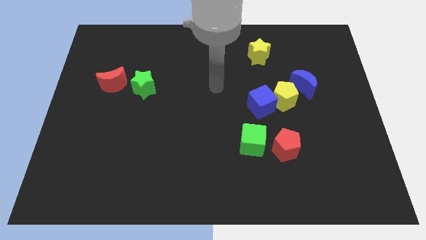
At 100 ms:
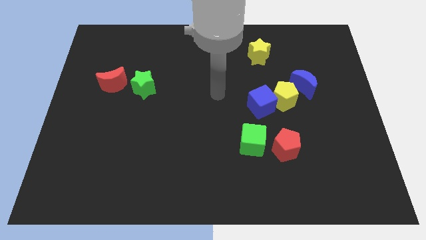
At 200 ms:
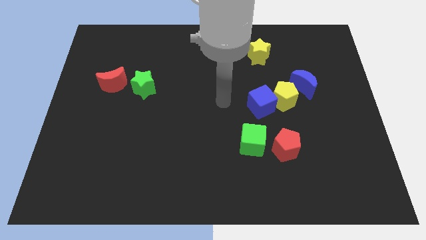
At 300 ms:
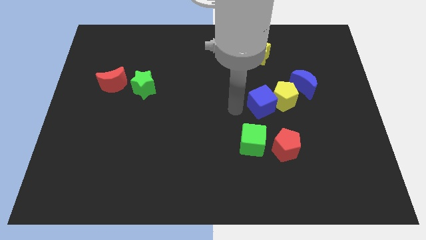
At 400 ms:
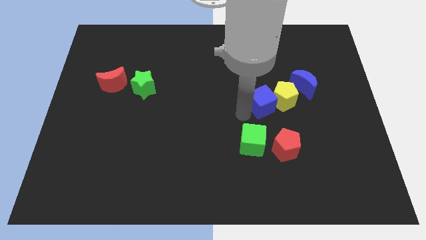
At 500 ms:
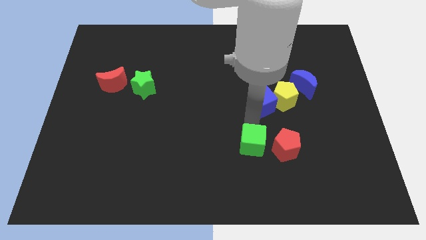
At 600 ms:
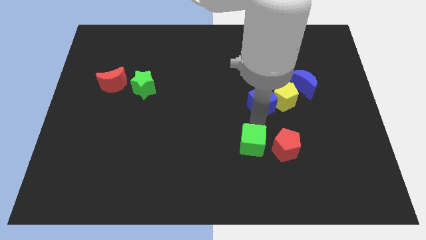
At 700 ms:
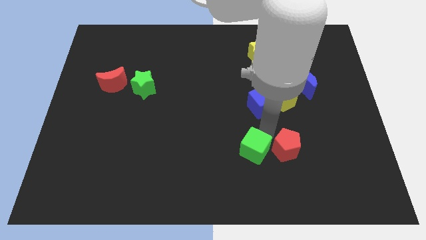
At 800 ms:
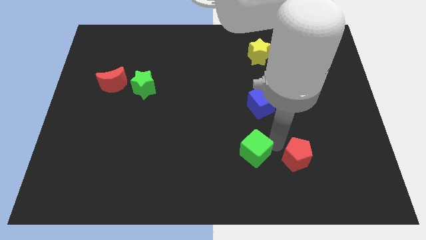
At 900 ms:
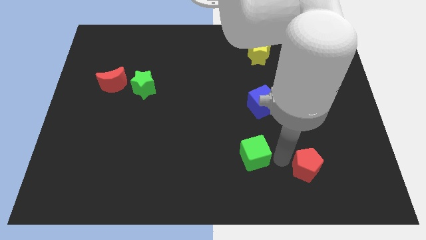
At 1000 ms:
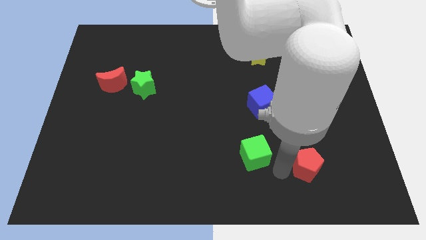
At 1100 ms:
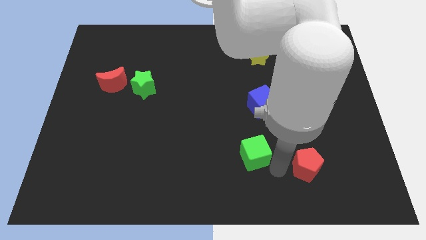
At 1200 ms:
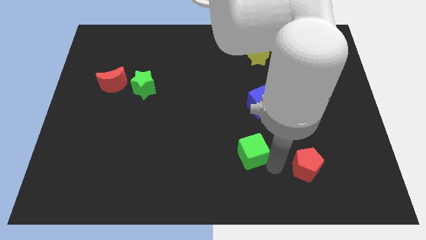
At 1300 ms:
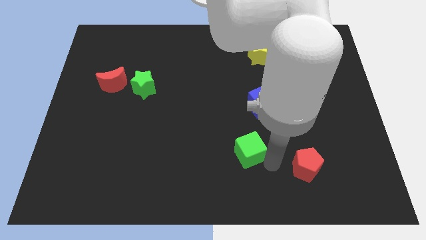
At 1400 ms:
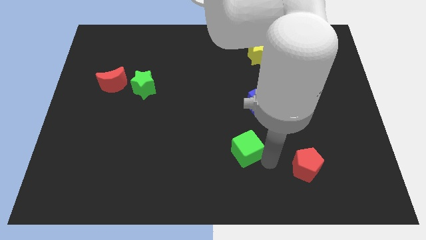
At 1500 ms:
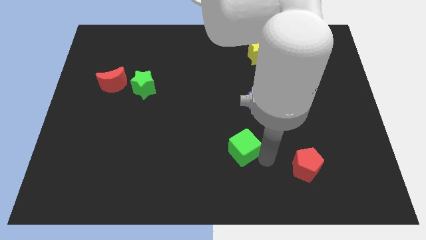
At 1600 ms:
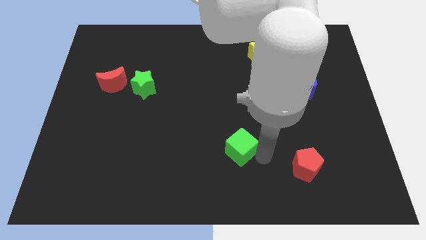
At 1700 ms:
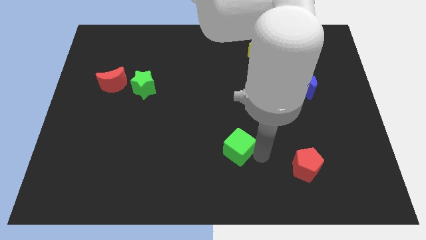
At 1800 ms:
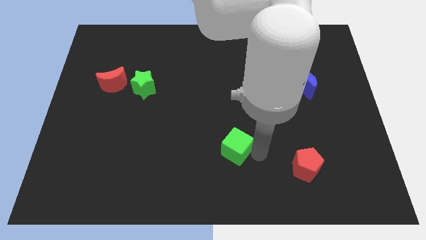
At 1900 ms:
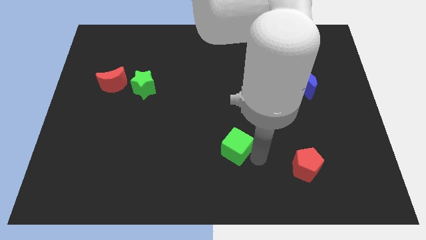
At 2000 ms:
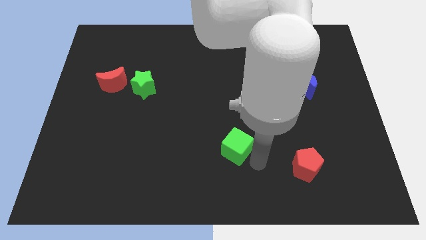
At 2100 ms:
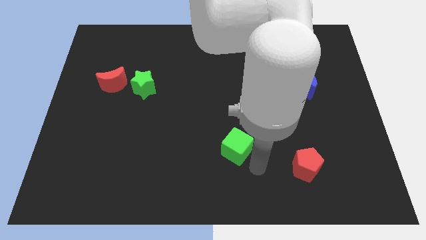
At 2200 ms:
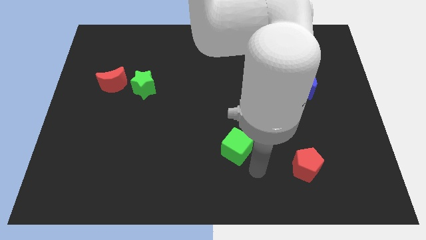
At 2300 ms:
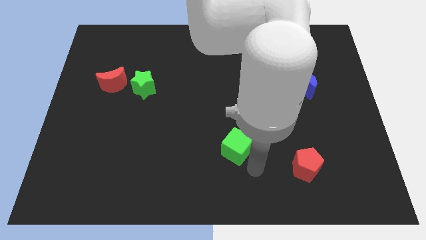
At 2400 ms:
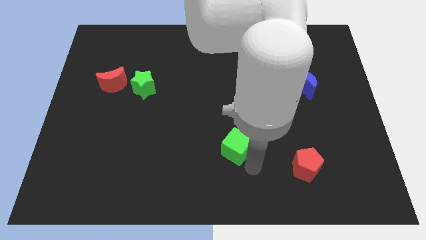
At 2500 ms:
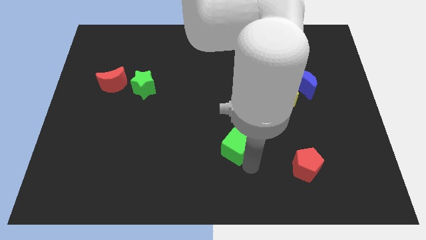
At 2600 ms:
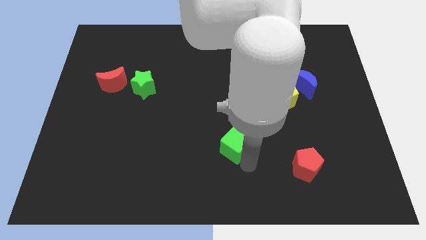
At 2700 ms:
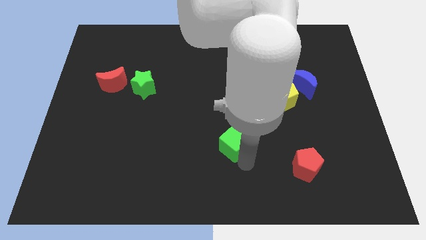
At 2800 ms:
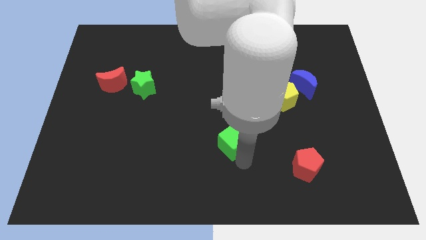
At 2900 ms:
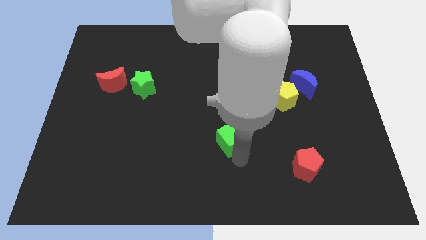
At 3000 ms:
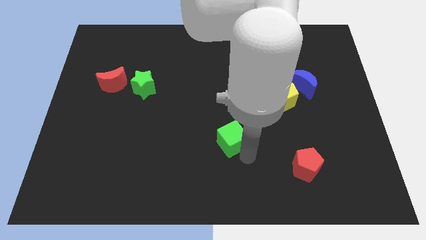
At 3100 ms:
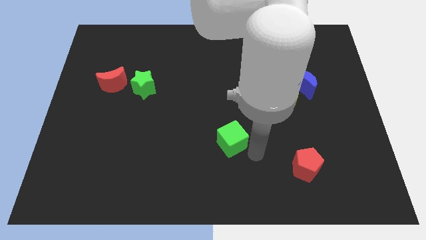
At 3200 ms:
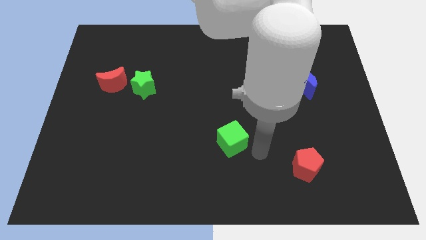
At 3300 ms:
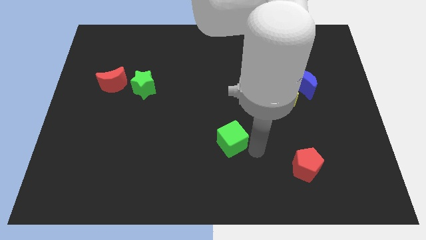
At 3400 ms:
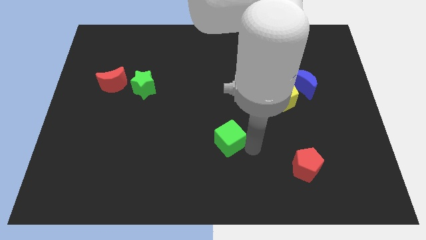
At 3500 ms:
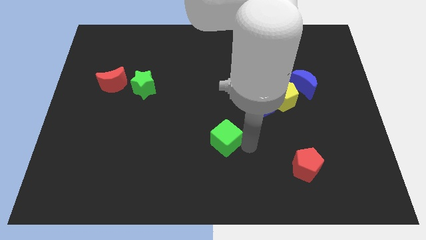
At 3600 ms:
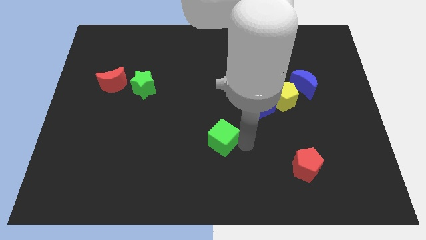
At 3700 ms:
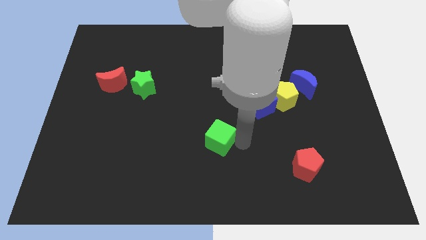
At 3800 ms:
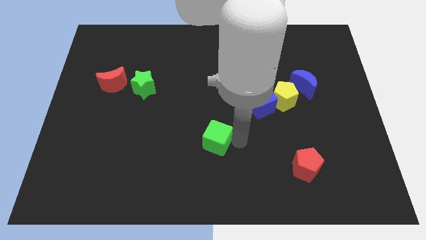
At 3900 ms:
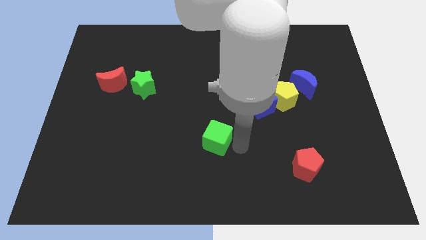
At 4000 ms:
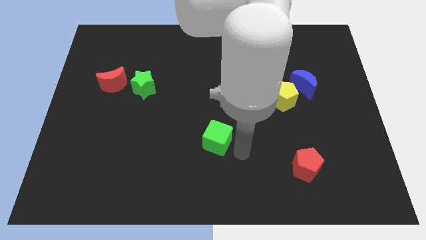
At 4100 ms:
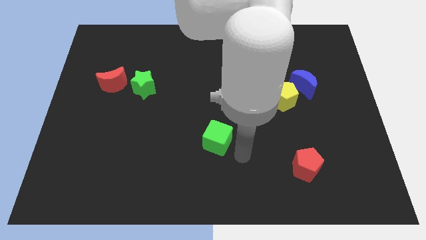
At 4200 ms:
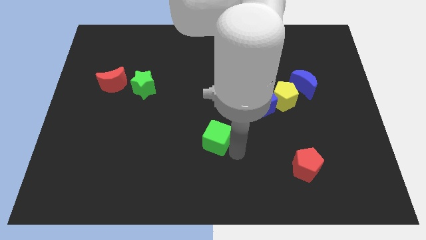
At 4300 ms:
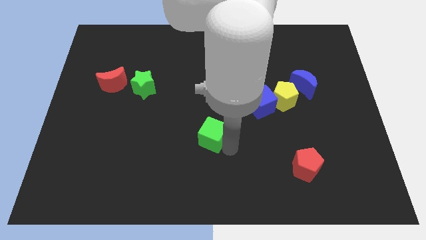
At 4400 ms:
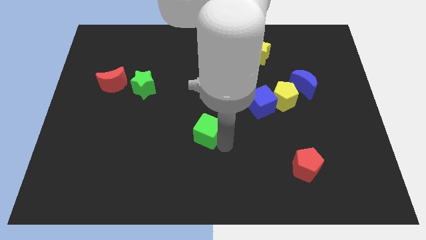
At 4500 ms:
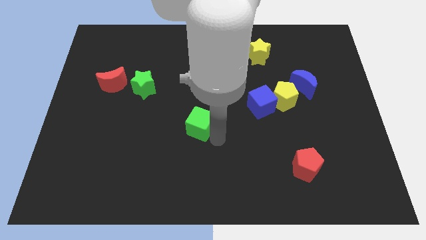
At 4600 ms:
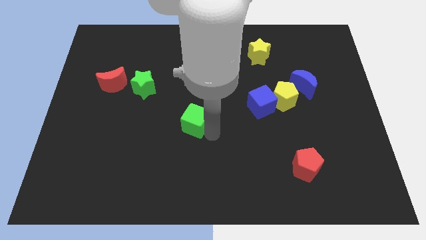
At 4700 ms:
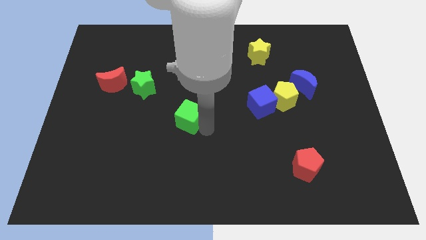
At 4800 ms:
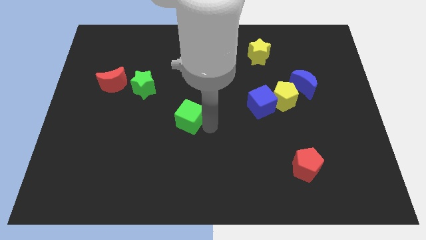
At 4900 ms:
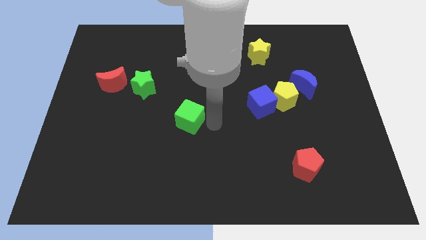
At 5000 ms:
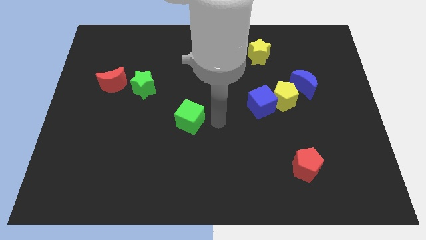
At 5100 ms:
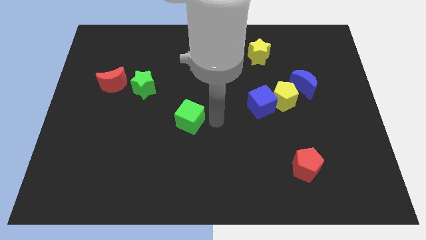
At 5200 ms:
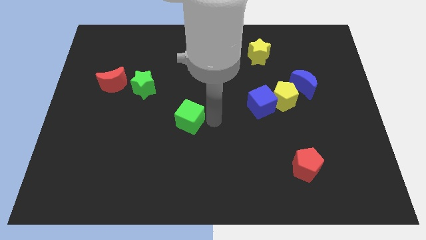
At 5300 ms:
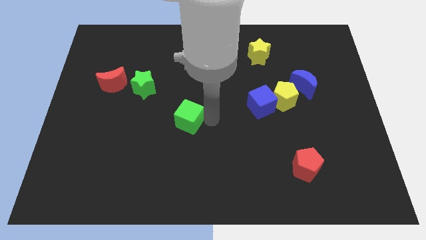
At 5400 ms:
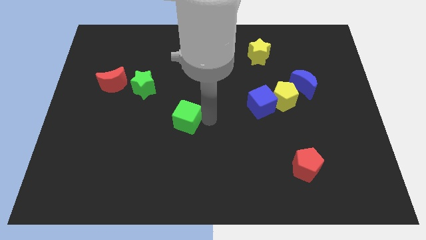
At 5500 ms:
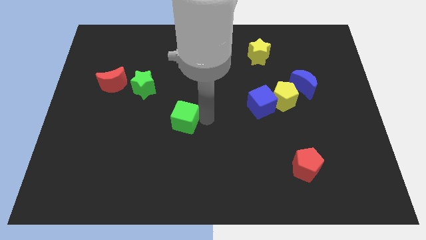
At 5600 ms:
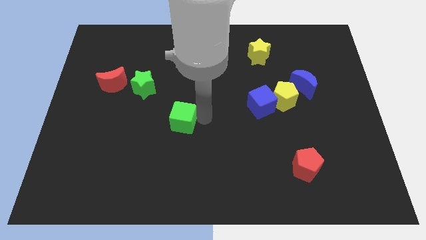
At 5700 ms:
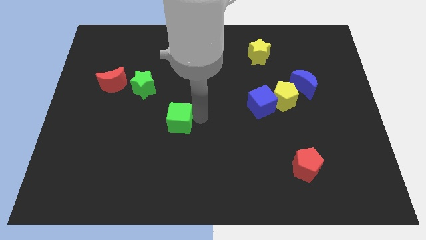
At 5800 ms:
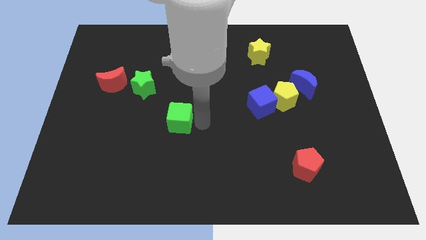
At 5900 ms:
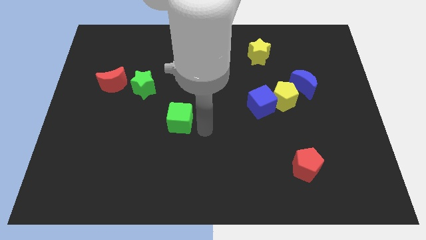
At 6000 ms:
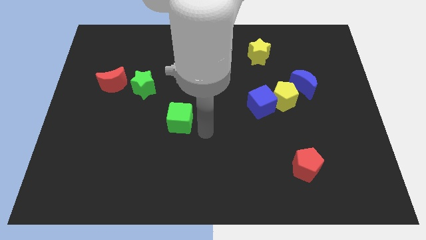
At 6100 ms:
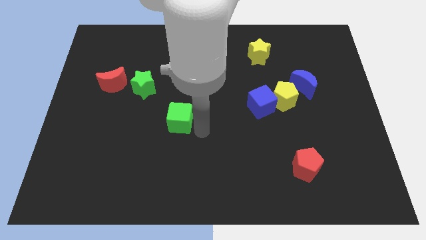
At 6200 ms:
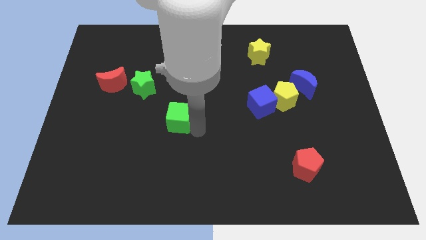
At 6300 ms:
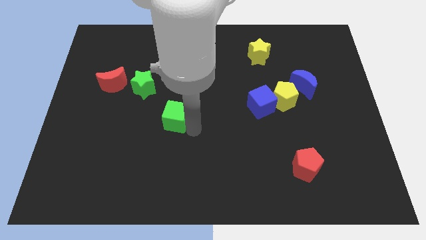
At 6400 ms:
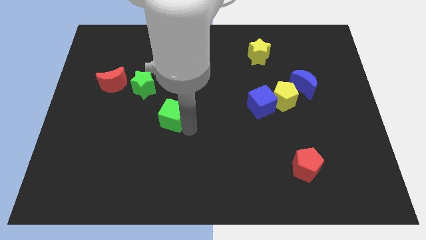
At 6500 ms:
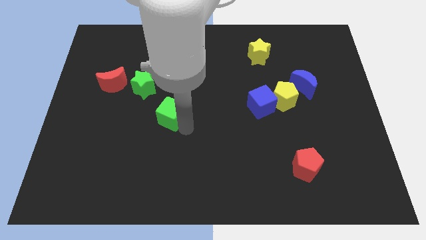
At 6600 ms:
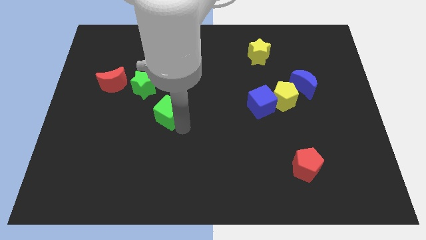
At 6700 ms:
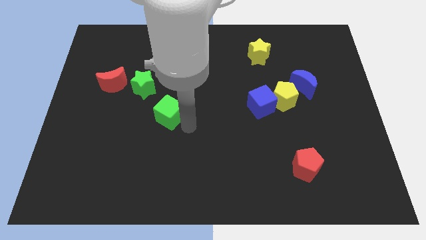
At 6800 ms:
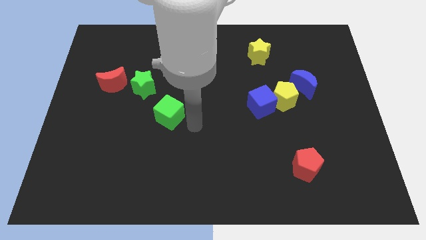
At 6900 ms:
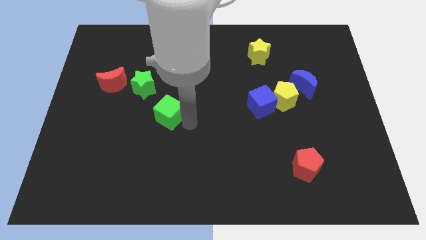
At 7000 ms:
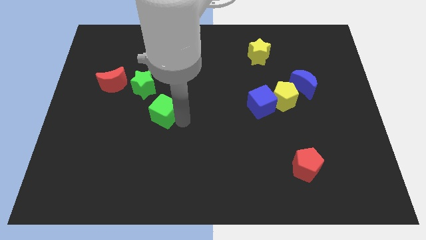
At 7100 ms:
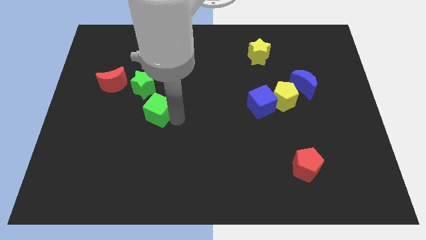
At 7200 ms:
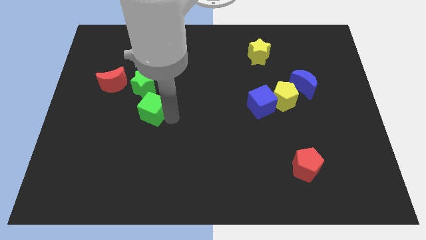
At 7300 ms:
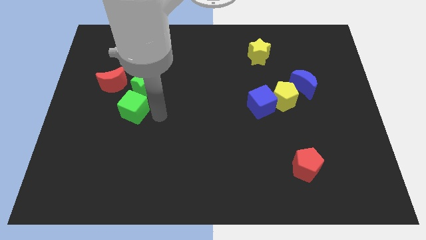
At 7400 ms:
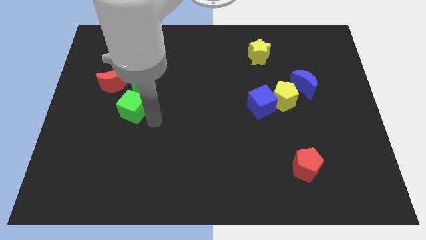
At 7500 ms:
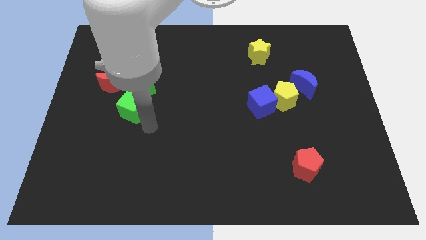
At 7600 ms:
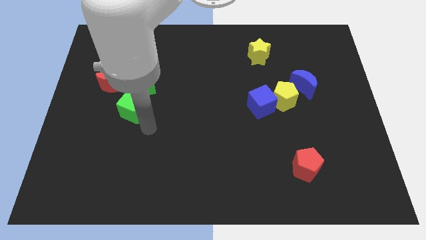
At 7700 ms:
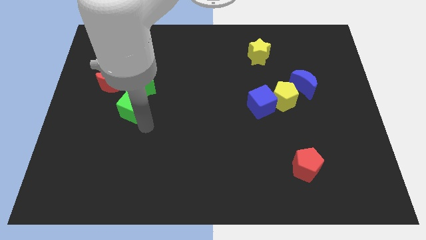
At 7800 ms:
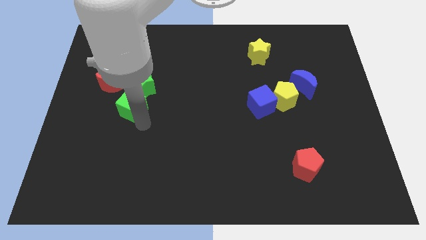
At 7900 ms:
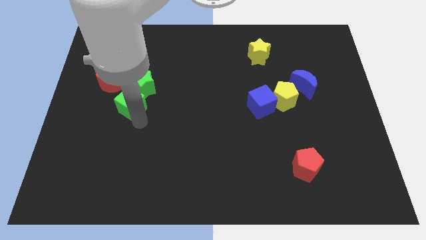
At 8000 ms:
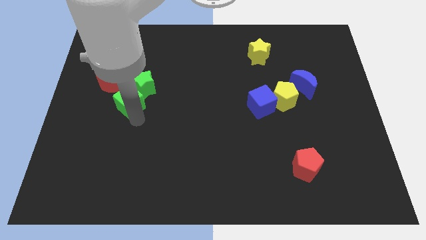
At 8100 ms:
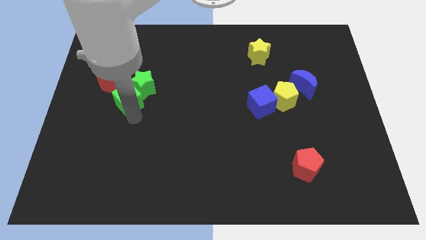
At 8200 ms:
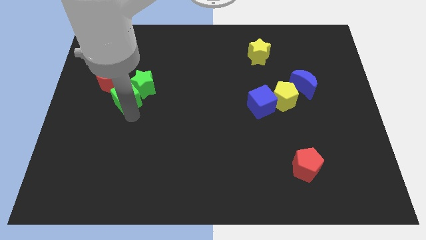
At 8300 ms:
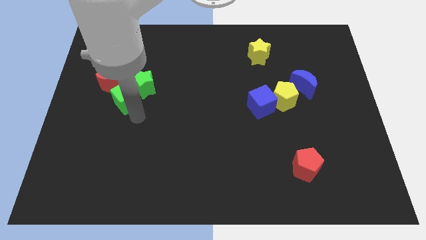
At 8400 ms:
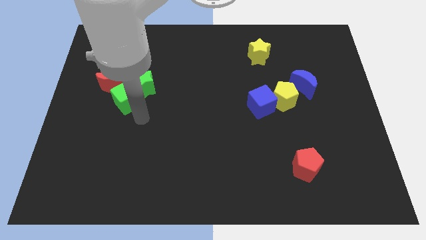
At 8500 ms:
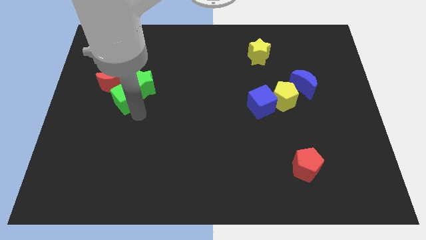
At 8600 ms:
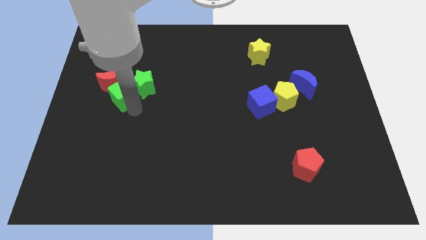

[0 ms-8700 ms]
slide the green cube towards the red moon
